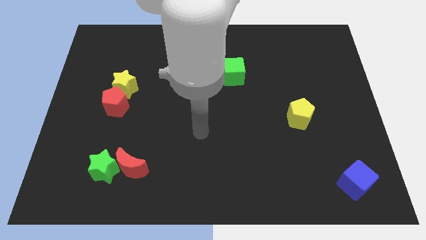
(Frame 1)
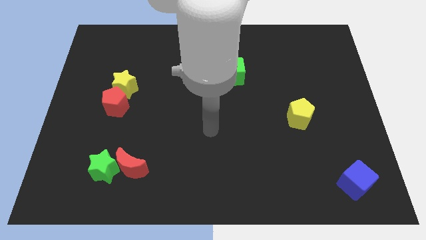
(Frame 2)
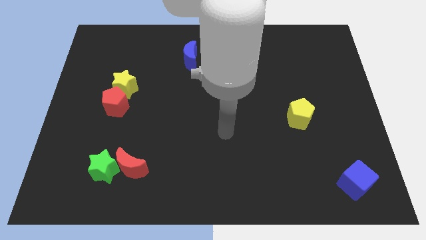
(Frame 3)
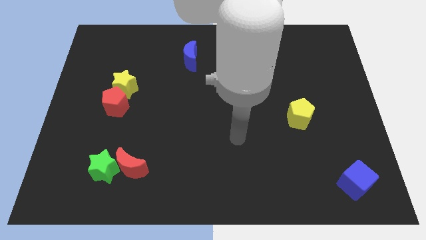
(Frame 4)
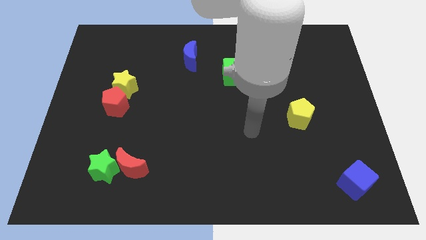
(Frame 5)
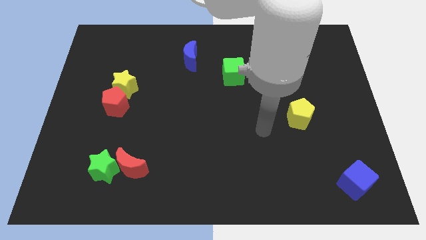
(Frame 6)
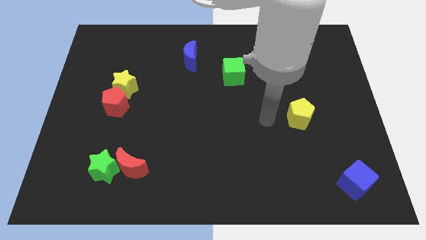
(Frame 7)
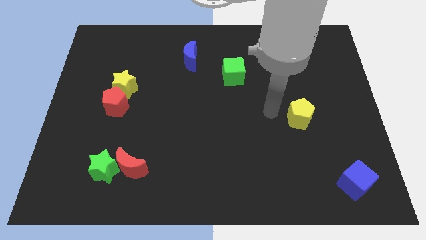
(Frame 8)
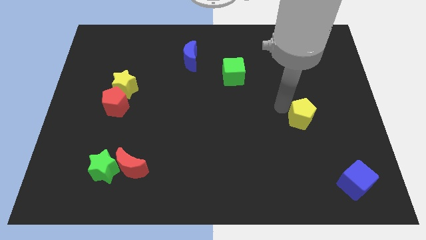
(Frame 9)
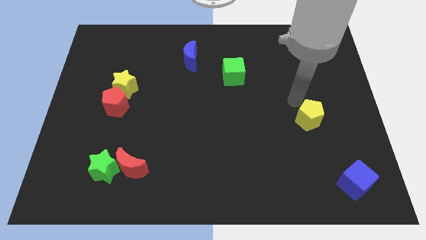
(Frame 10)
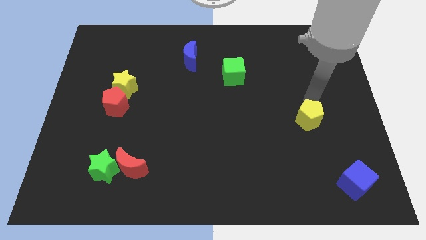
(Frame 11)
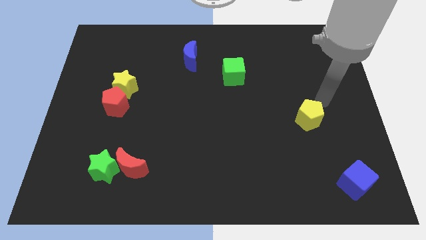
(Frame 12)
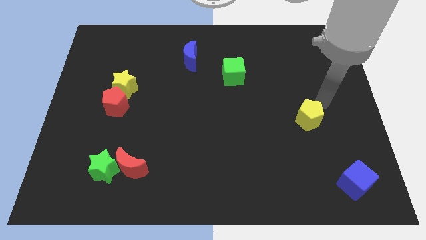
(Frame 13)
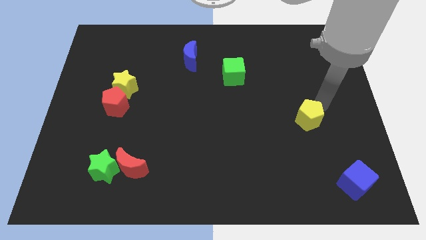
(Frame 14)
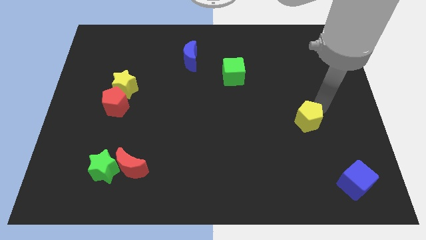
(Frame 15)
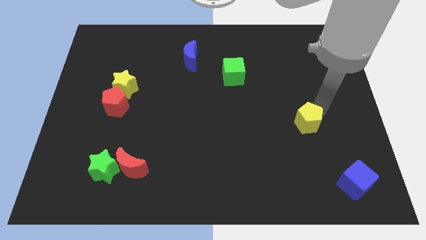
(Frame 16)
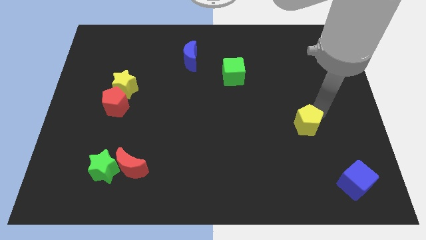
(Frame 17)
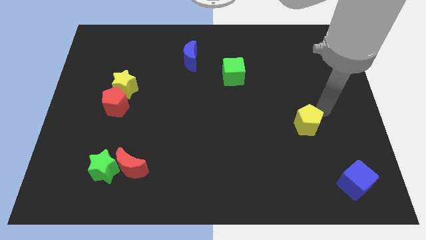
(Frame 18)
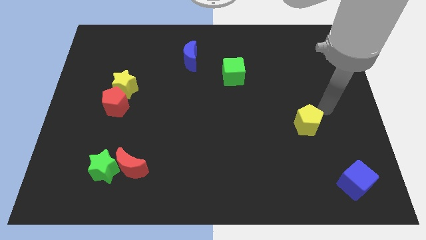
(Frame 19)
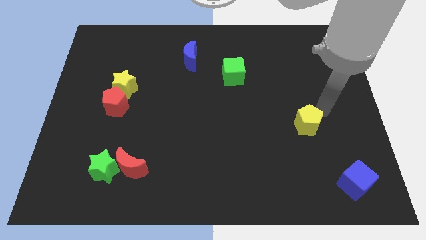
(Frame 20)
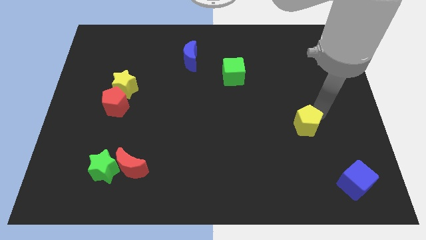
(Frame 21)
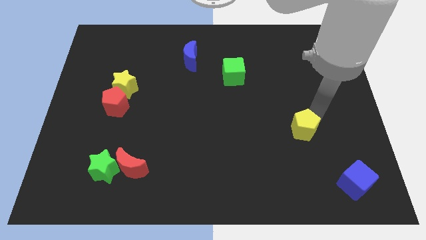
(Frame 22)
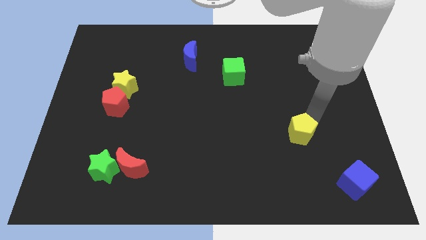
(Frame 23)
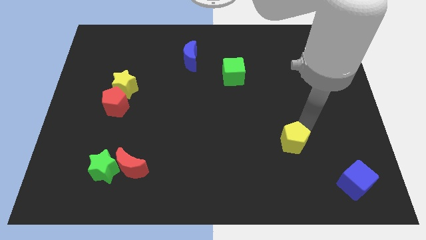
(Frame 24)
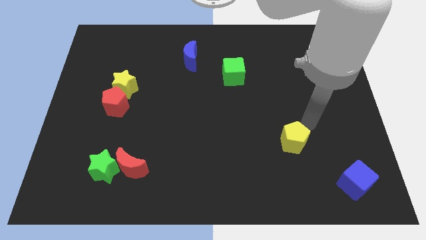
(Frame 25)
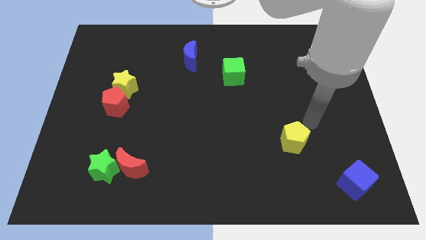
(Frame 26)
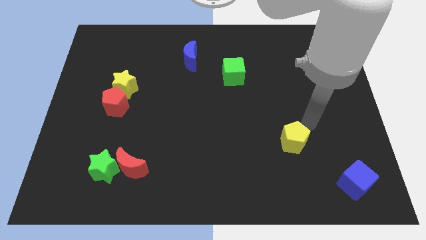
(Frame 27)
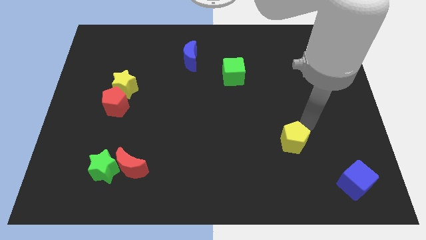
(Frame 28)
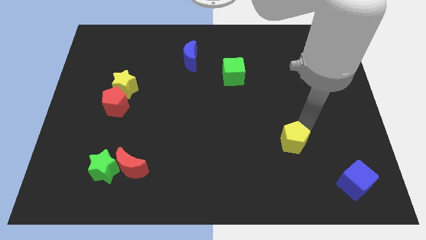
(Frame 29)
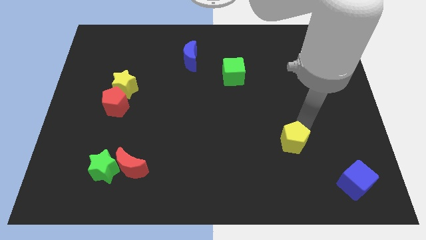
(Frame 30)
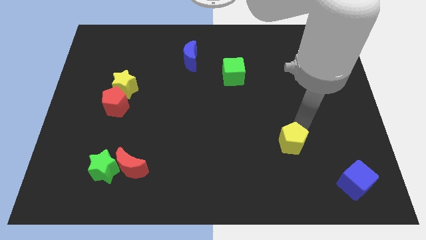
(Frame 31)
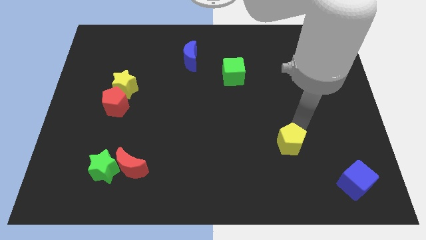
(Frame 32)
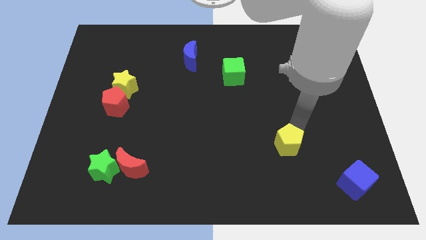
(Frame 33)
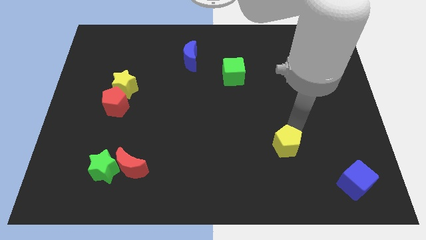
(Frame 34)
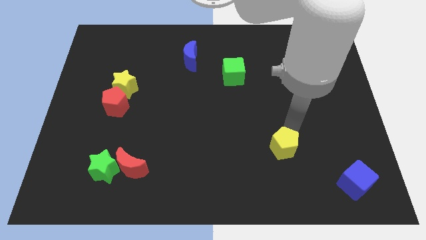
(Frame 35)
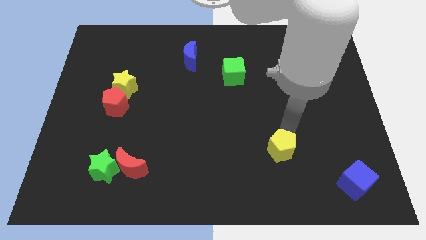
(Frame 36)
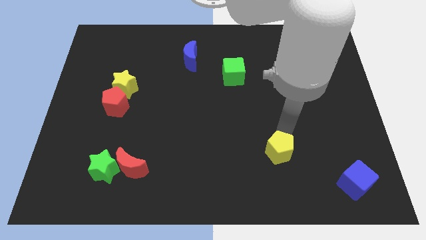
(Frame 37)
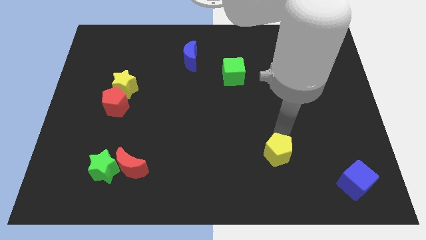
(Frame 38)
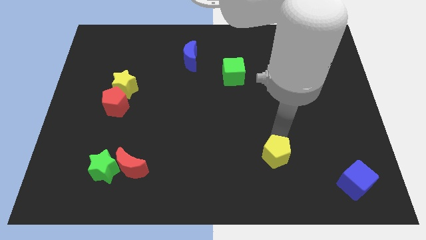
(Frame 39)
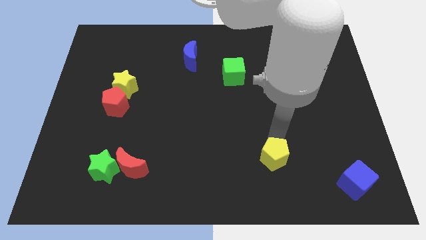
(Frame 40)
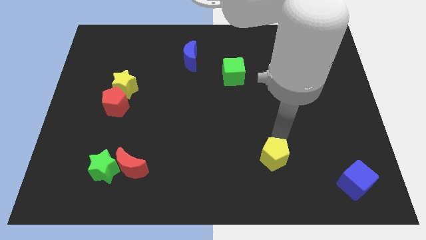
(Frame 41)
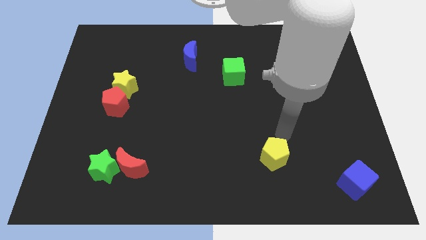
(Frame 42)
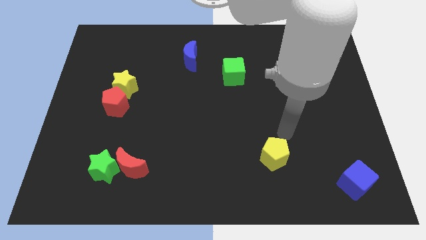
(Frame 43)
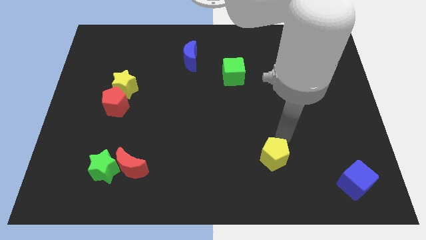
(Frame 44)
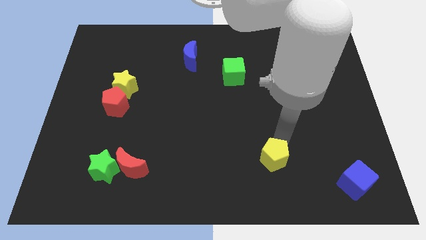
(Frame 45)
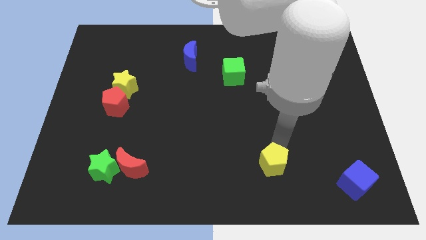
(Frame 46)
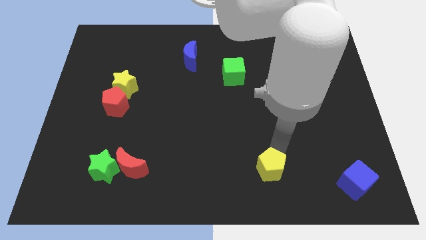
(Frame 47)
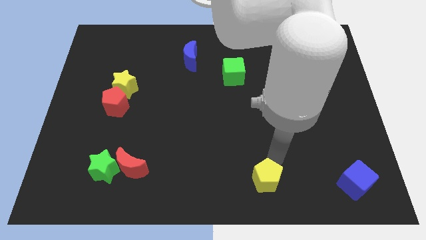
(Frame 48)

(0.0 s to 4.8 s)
put the yellow pentagon to the bottom side

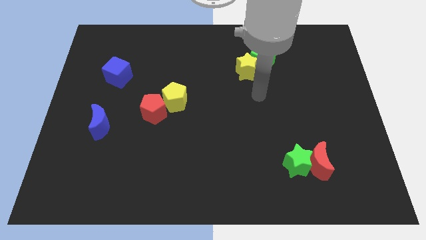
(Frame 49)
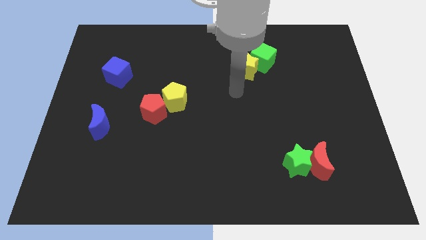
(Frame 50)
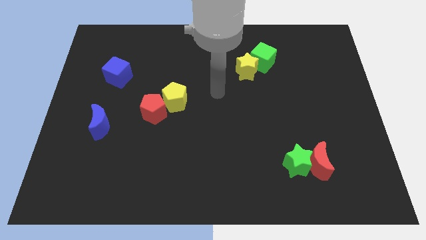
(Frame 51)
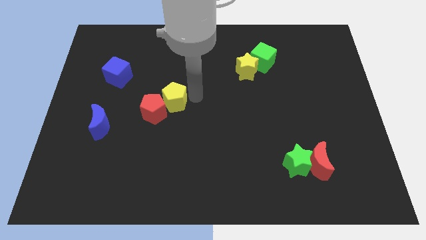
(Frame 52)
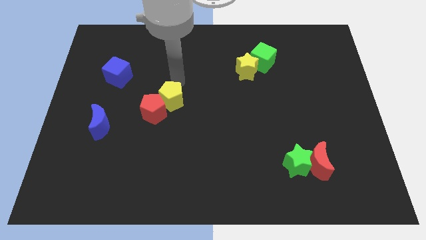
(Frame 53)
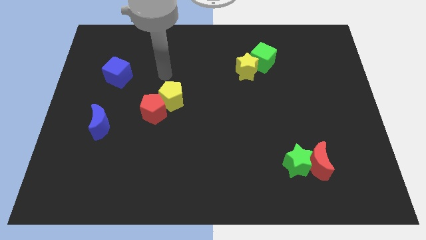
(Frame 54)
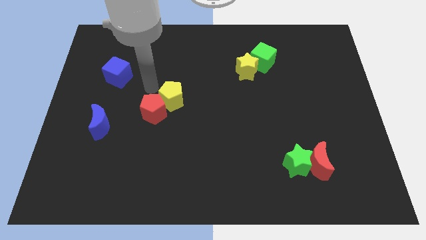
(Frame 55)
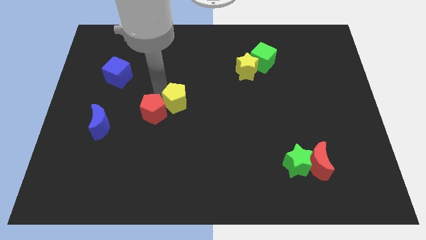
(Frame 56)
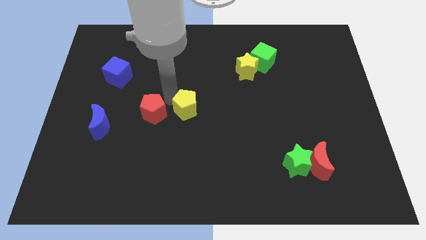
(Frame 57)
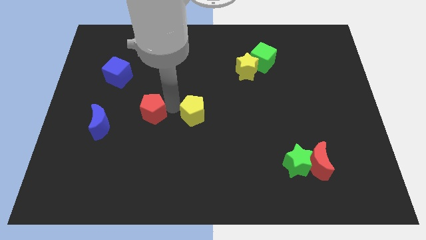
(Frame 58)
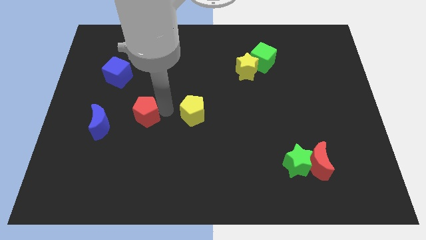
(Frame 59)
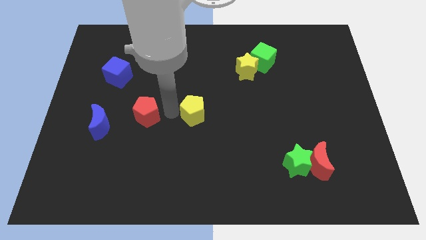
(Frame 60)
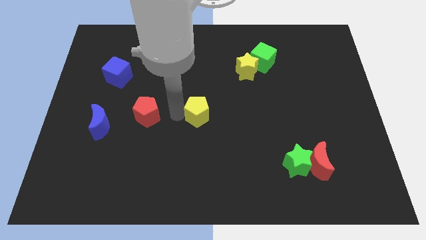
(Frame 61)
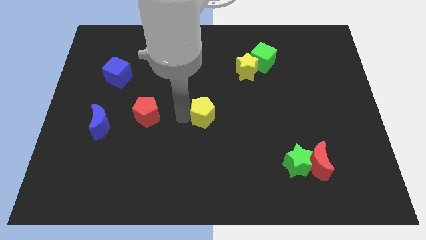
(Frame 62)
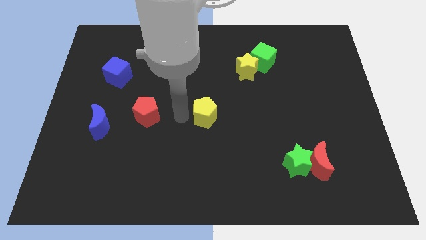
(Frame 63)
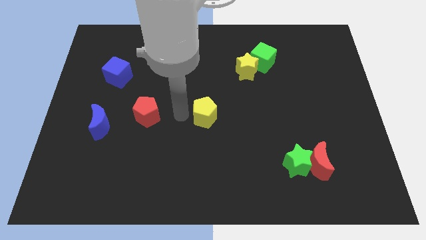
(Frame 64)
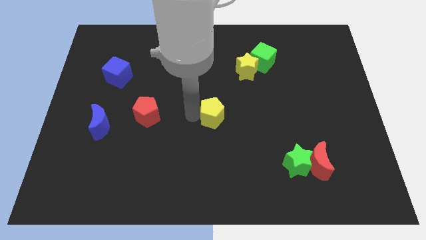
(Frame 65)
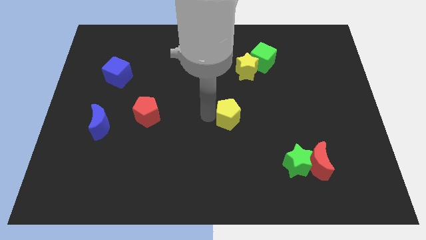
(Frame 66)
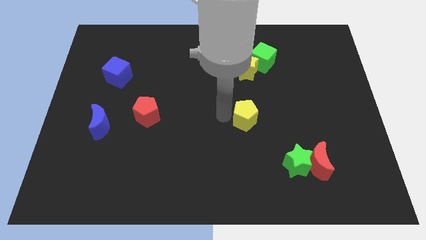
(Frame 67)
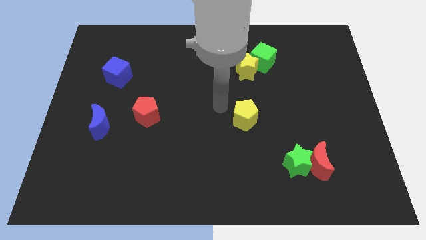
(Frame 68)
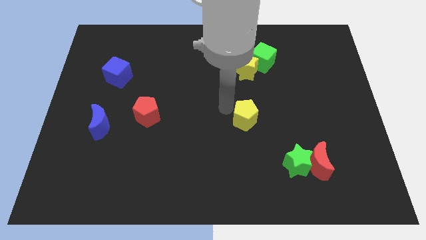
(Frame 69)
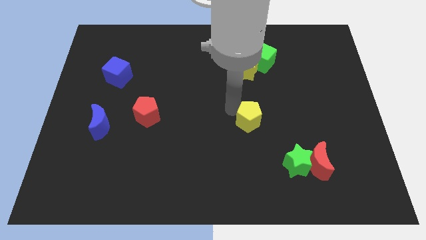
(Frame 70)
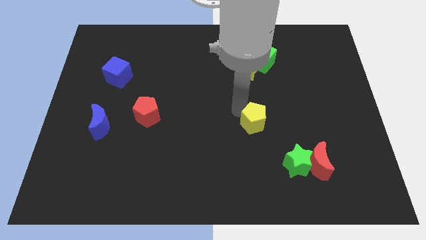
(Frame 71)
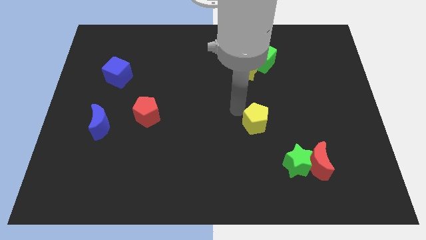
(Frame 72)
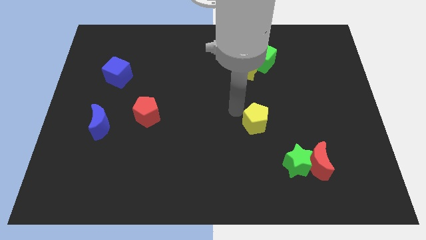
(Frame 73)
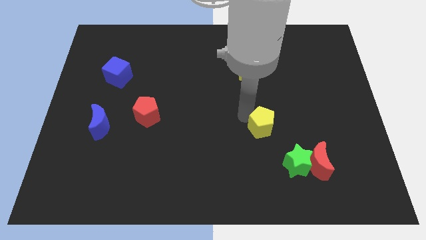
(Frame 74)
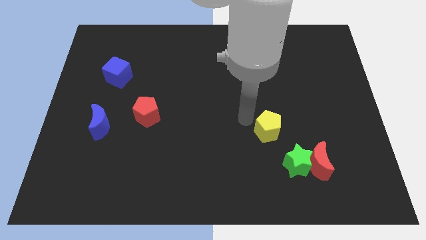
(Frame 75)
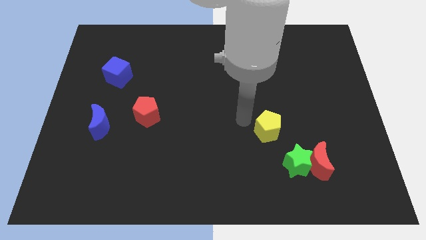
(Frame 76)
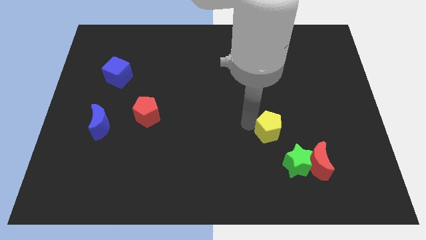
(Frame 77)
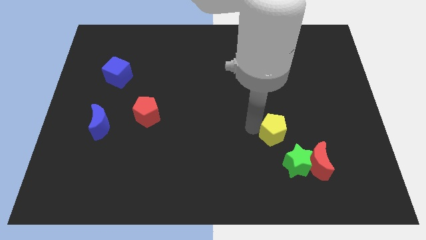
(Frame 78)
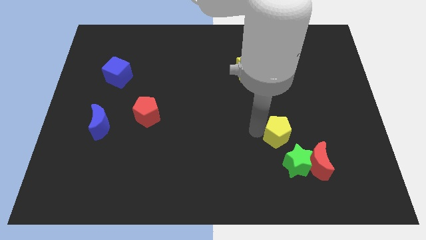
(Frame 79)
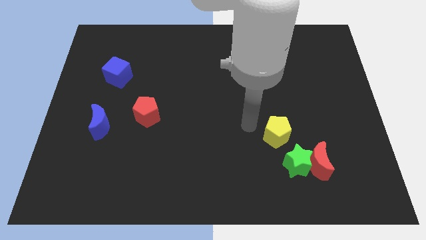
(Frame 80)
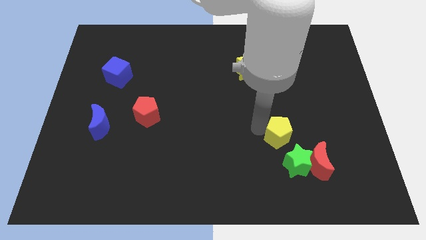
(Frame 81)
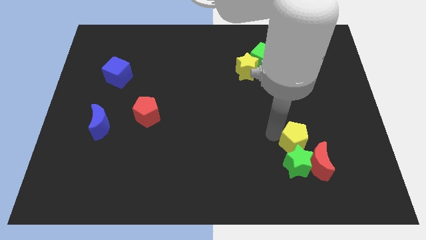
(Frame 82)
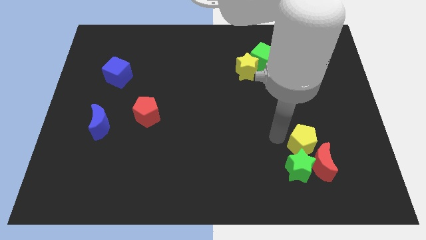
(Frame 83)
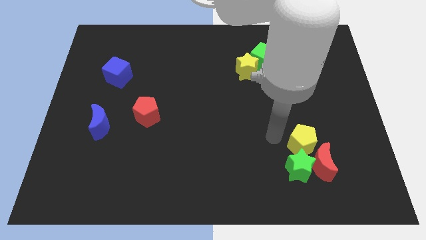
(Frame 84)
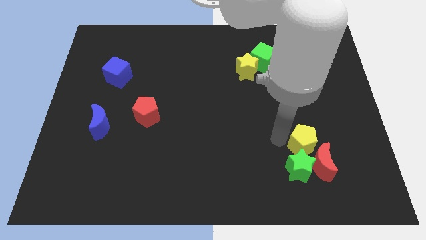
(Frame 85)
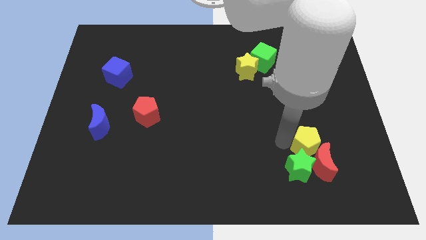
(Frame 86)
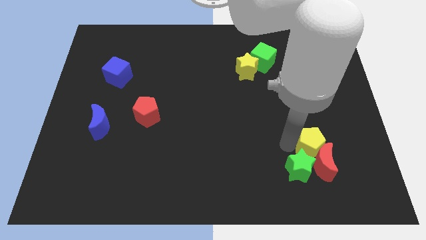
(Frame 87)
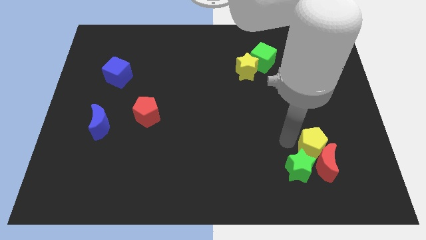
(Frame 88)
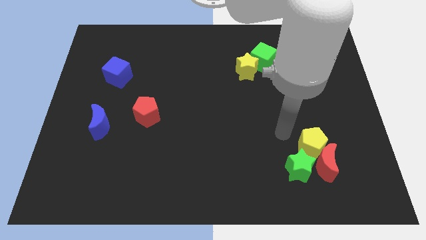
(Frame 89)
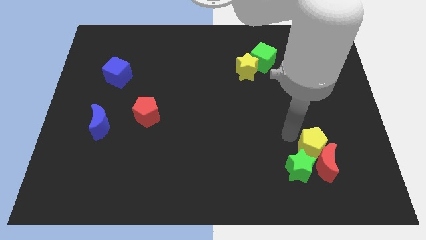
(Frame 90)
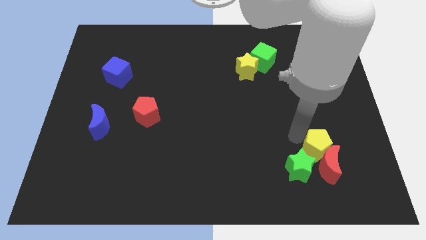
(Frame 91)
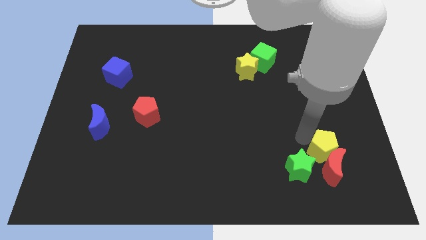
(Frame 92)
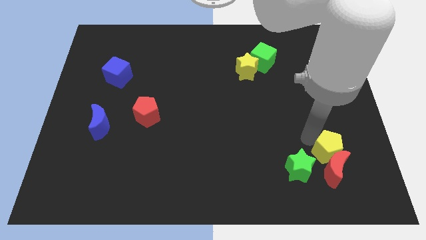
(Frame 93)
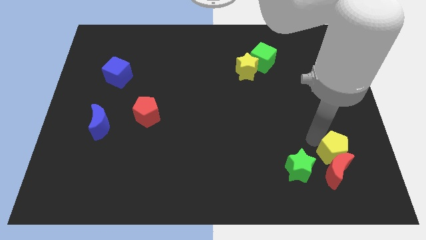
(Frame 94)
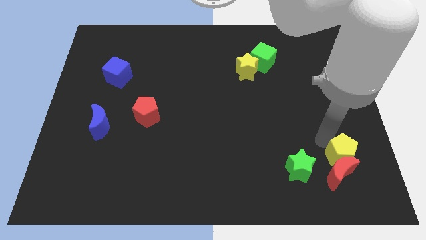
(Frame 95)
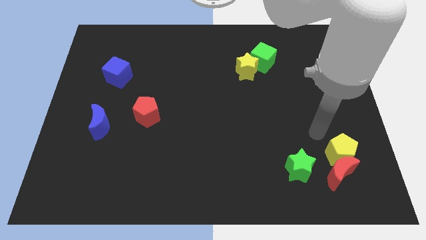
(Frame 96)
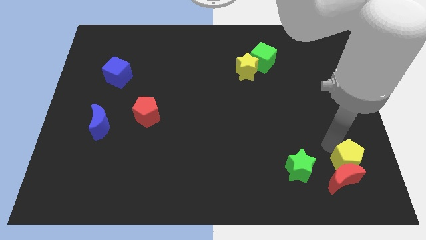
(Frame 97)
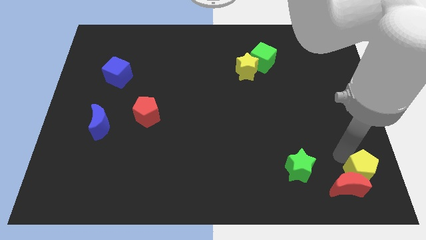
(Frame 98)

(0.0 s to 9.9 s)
slide the yellow pentagon to the bottom right
